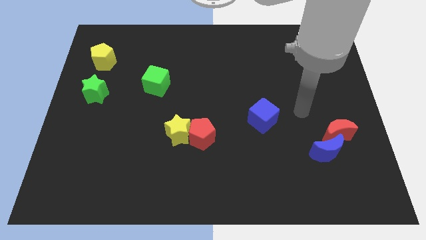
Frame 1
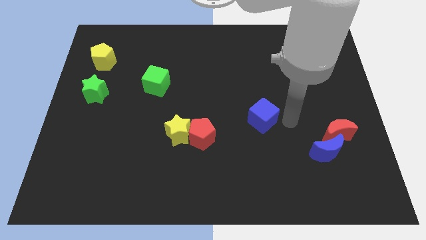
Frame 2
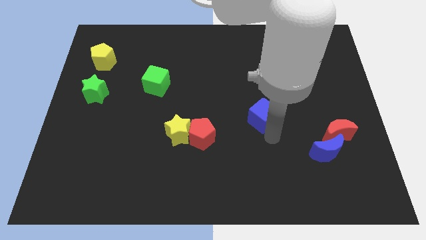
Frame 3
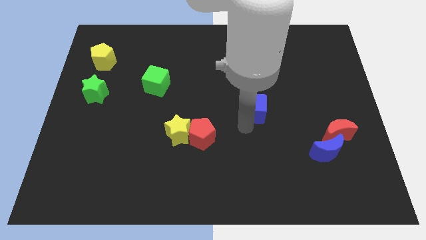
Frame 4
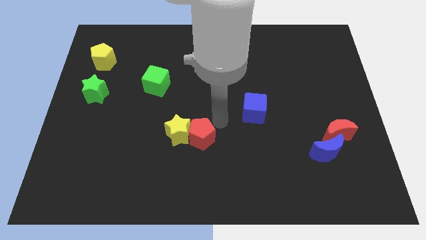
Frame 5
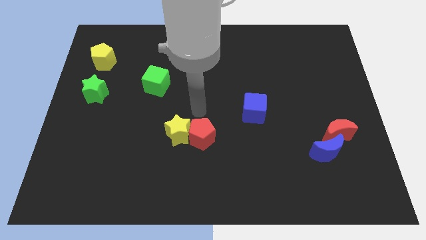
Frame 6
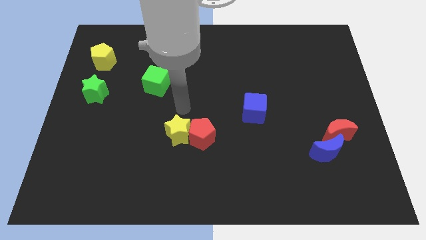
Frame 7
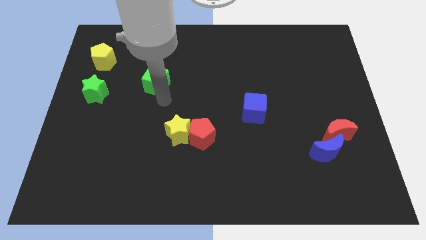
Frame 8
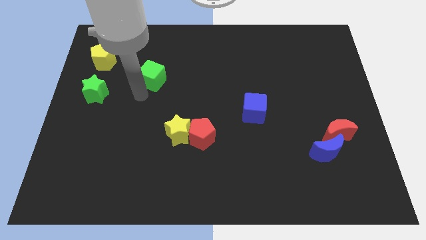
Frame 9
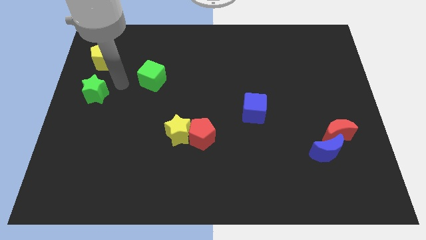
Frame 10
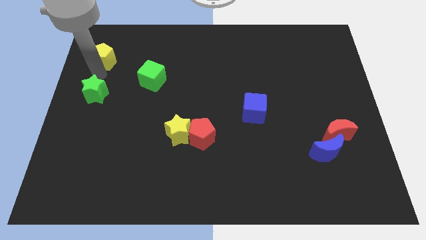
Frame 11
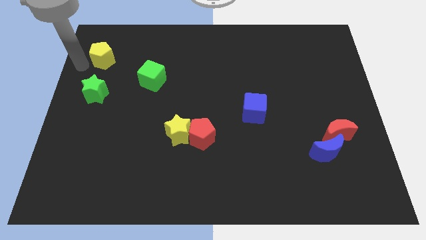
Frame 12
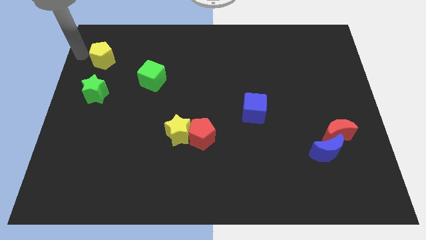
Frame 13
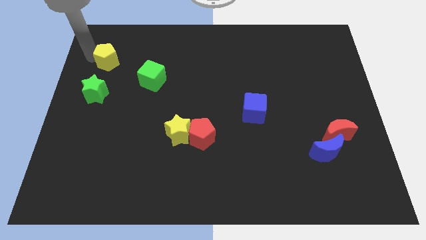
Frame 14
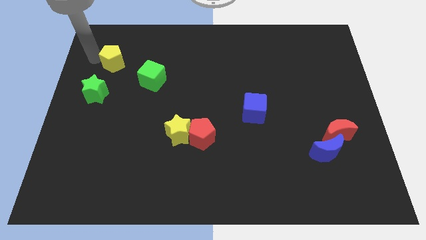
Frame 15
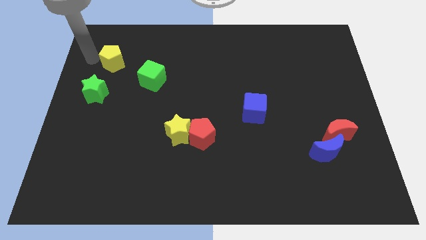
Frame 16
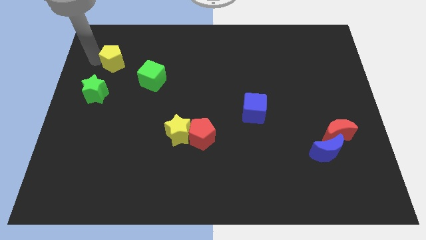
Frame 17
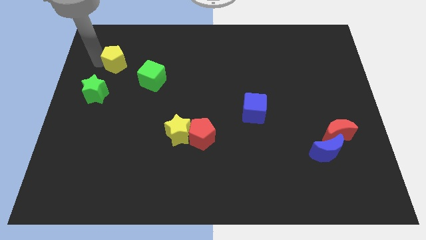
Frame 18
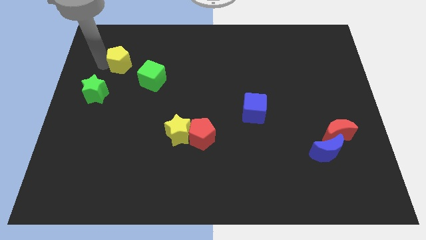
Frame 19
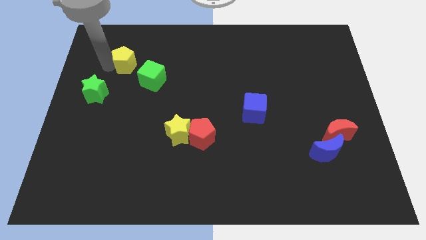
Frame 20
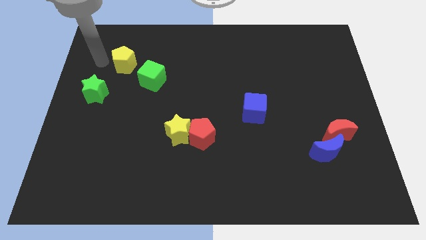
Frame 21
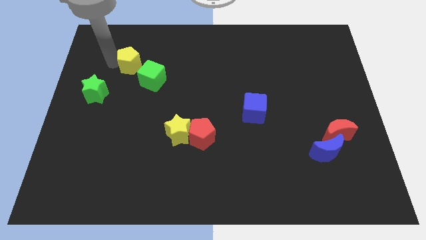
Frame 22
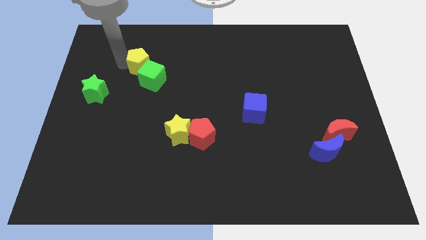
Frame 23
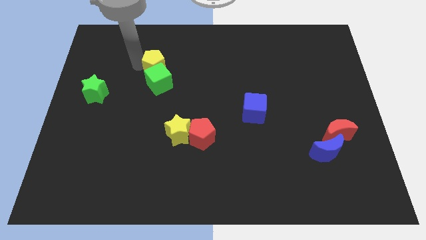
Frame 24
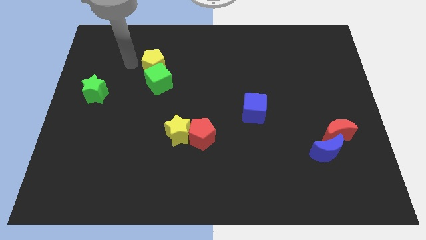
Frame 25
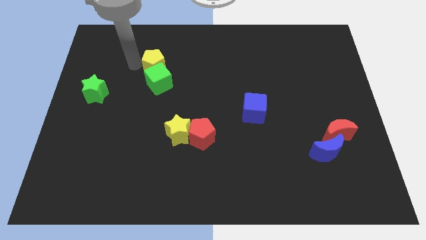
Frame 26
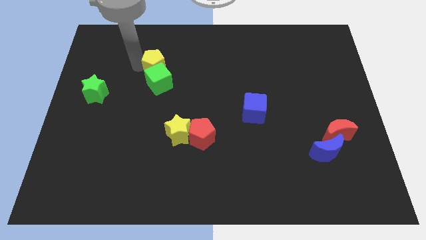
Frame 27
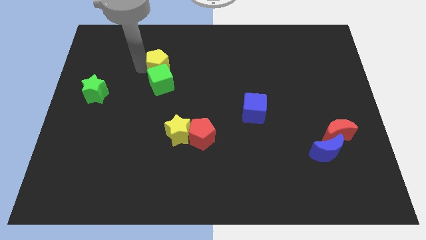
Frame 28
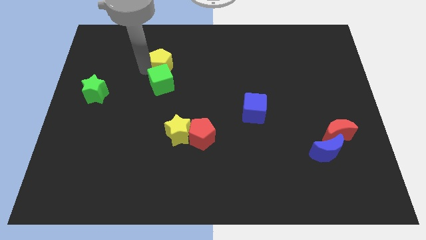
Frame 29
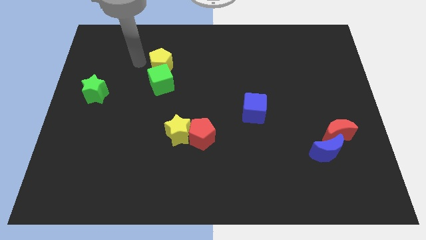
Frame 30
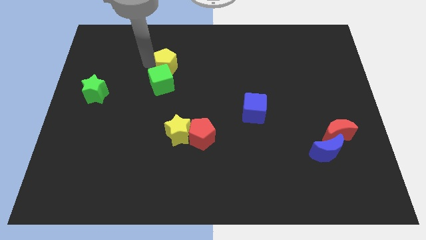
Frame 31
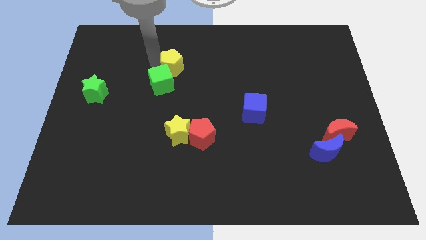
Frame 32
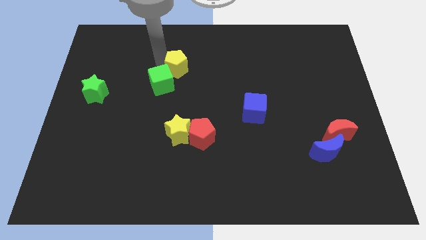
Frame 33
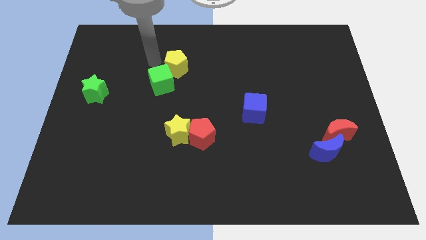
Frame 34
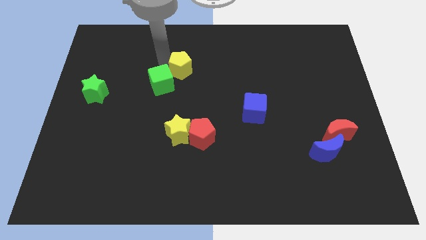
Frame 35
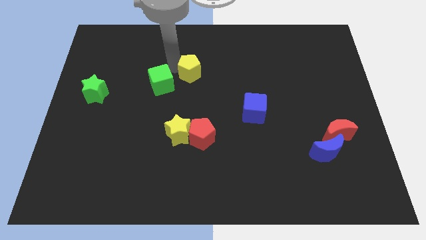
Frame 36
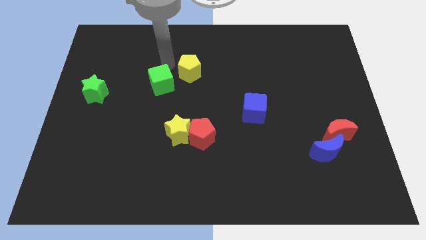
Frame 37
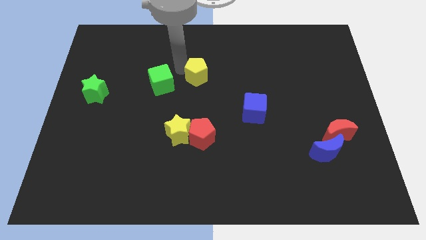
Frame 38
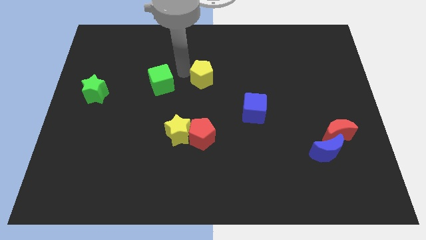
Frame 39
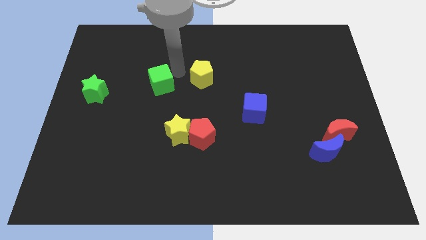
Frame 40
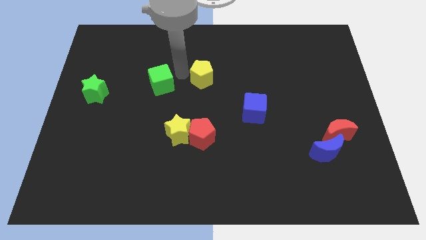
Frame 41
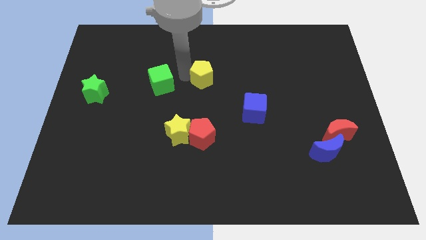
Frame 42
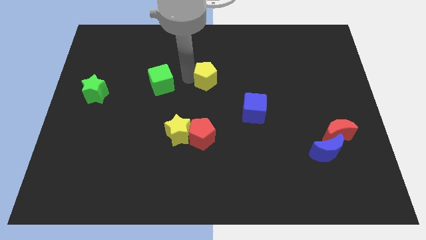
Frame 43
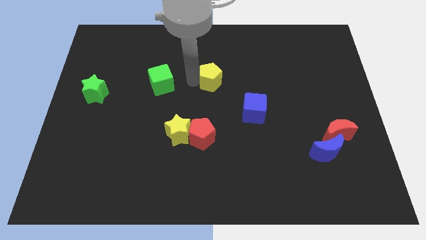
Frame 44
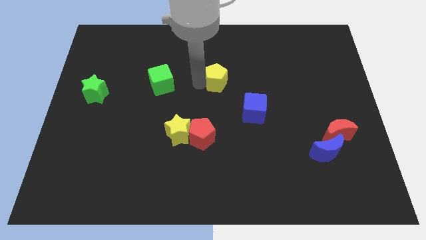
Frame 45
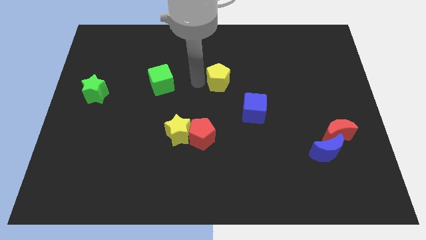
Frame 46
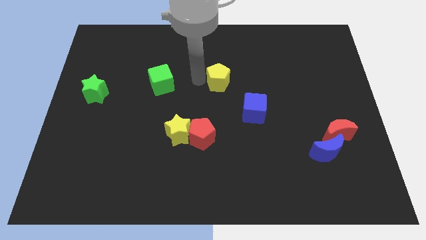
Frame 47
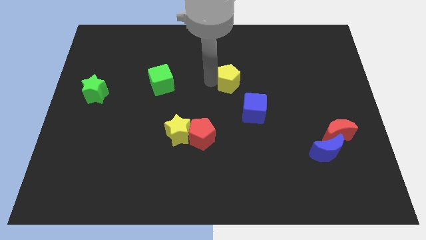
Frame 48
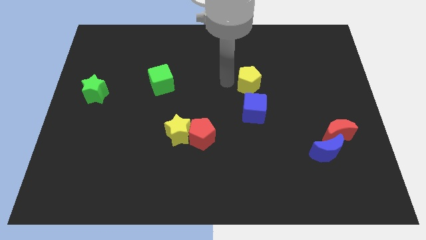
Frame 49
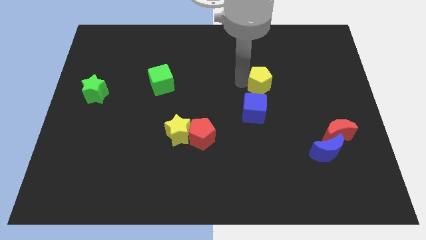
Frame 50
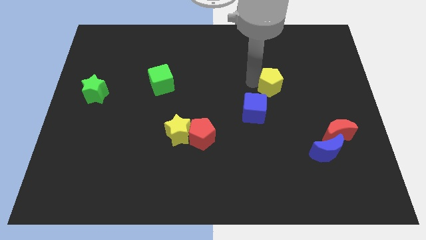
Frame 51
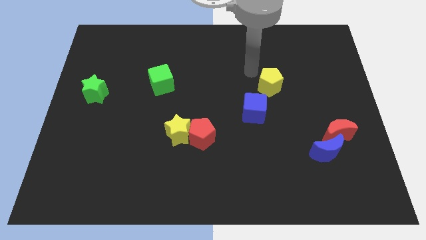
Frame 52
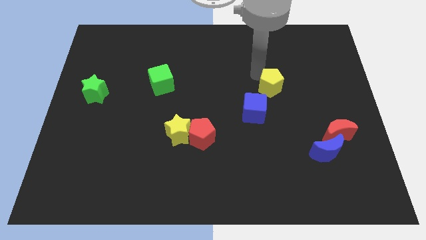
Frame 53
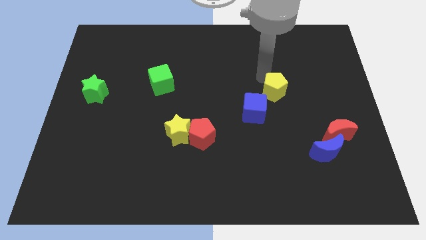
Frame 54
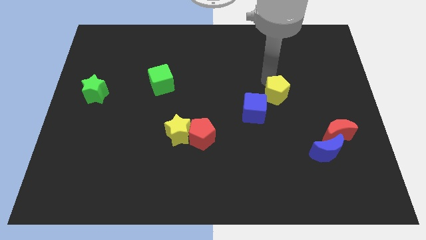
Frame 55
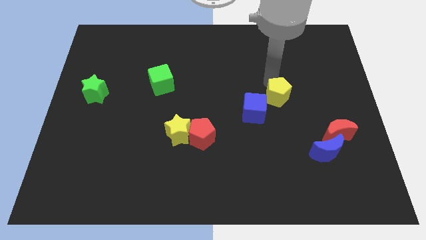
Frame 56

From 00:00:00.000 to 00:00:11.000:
move the yellow pentagon to the right side of the blue cube

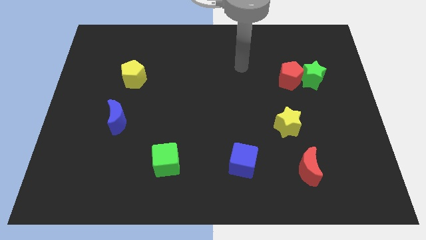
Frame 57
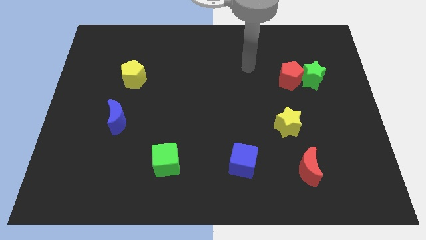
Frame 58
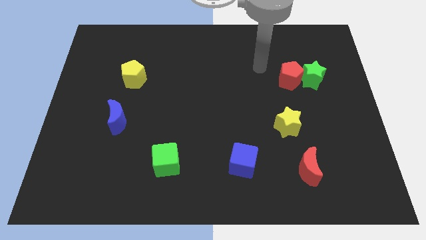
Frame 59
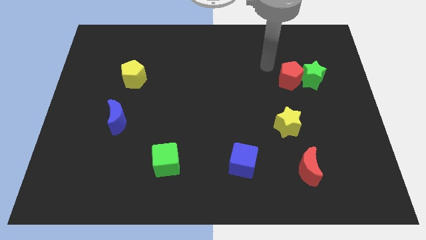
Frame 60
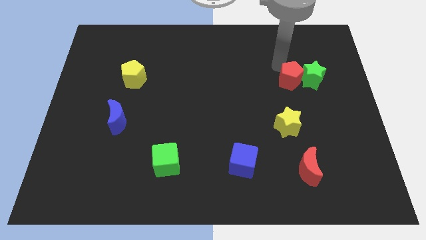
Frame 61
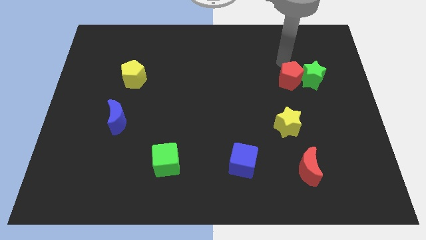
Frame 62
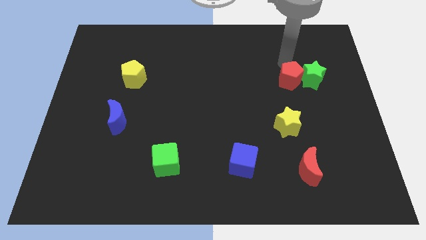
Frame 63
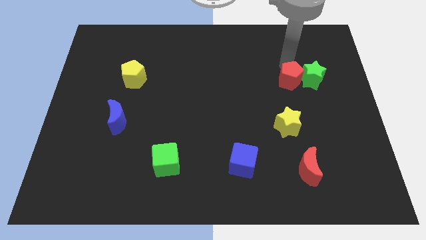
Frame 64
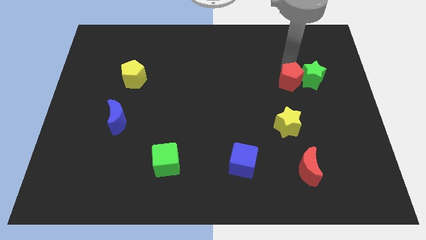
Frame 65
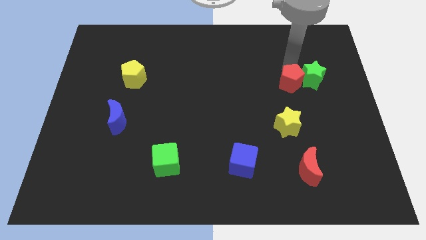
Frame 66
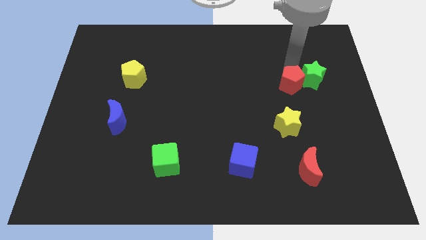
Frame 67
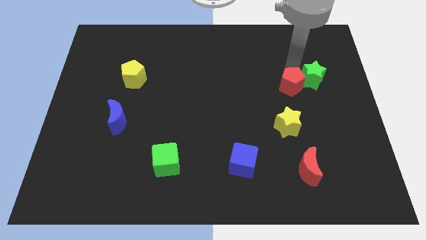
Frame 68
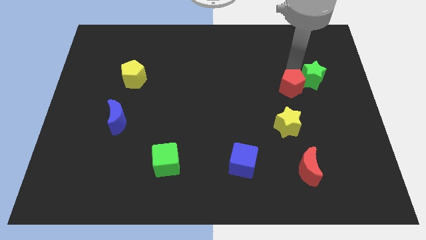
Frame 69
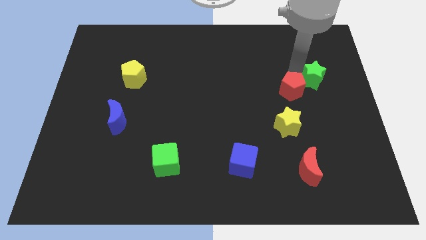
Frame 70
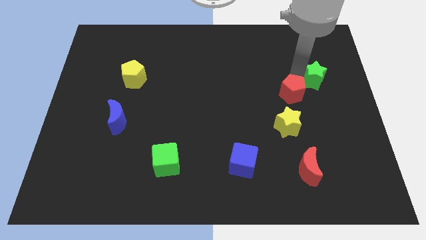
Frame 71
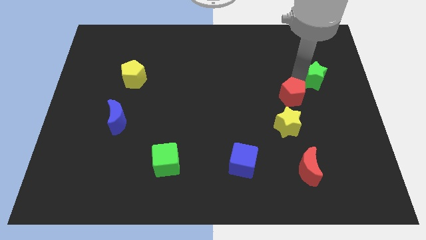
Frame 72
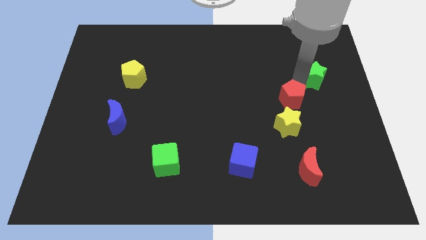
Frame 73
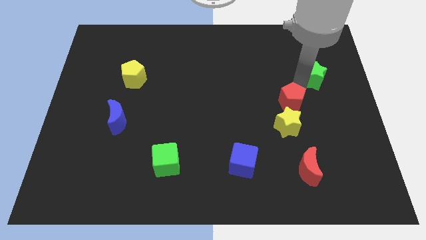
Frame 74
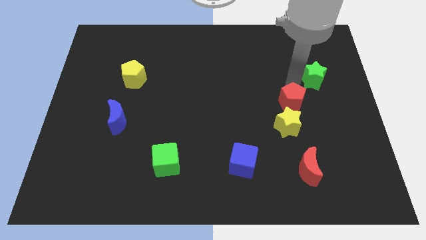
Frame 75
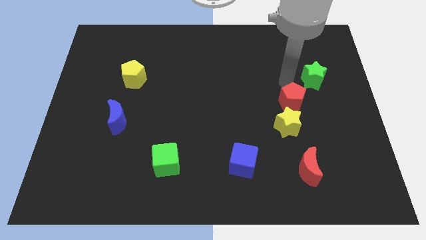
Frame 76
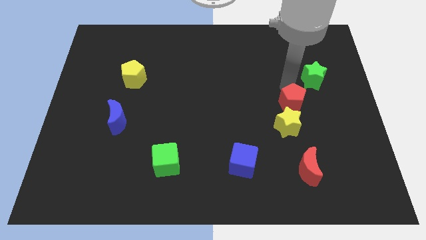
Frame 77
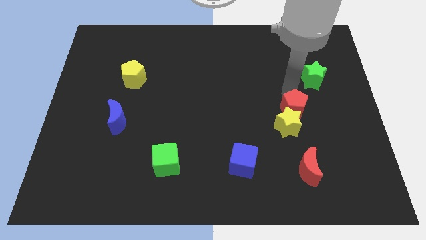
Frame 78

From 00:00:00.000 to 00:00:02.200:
put the red pentagon to the top side of the red moon
